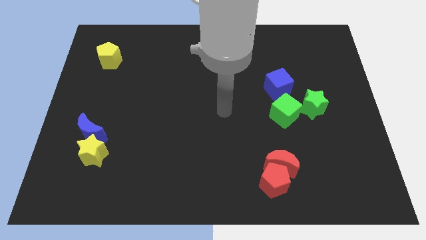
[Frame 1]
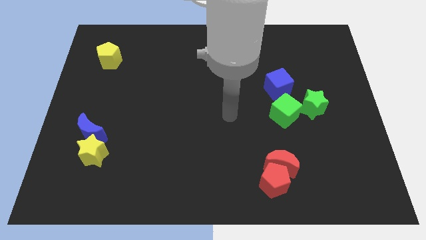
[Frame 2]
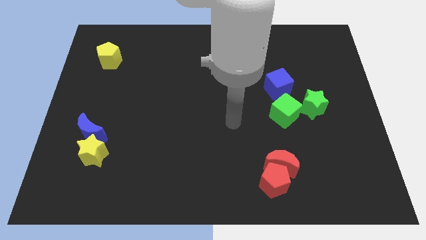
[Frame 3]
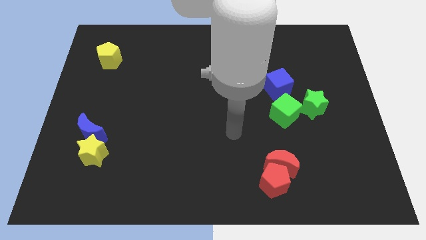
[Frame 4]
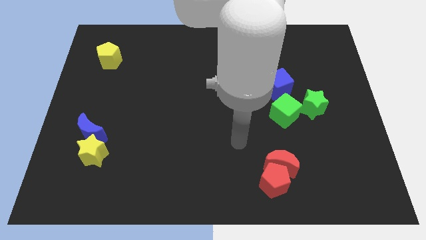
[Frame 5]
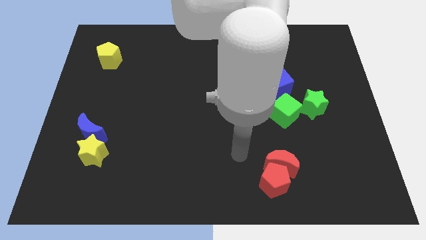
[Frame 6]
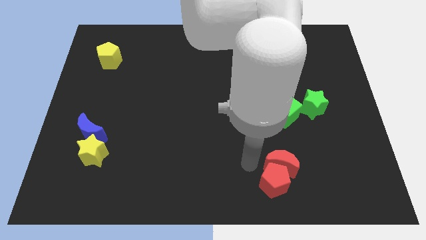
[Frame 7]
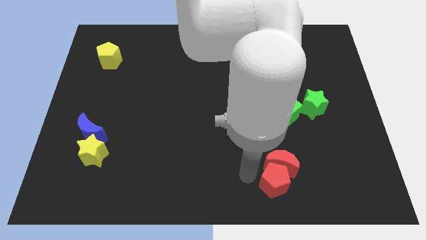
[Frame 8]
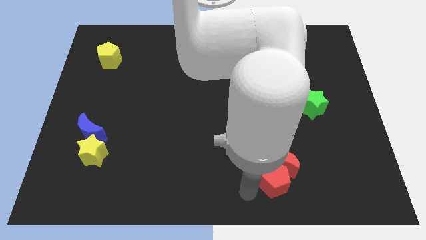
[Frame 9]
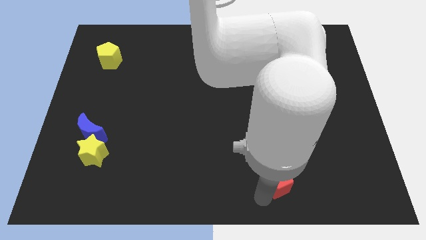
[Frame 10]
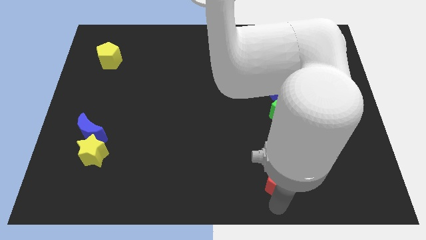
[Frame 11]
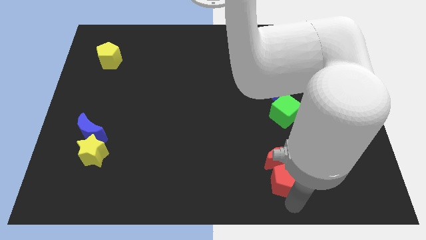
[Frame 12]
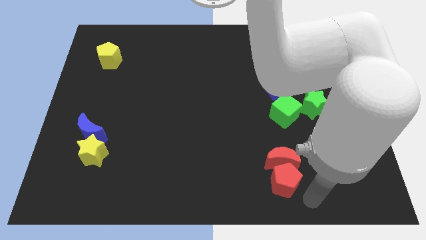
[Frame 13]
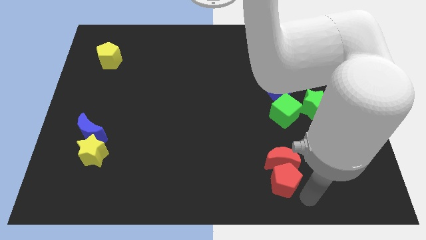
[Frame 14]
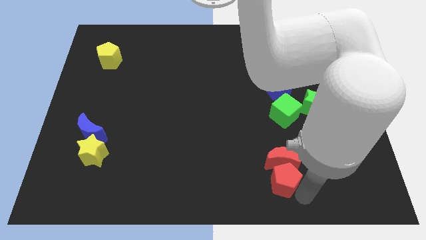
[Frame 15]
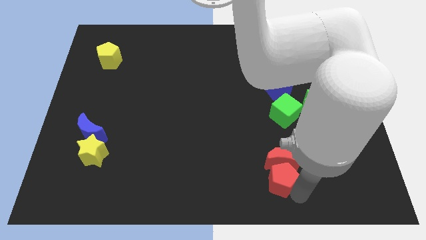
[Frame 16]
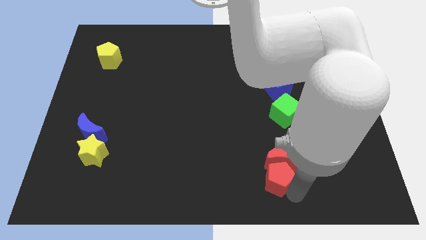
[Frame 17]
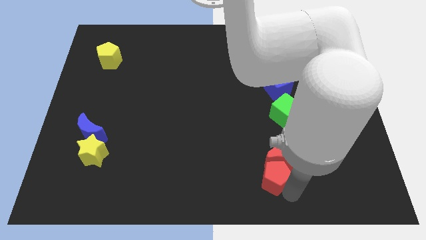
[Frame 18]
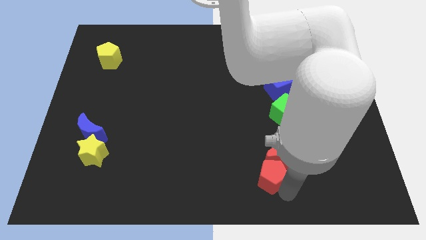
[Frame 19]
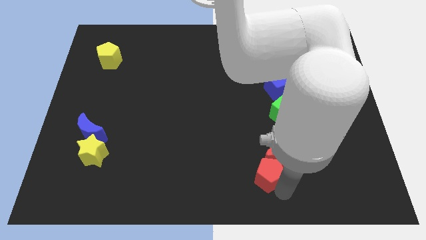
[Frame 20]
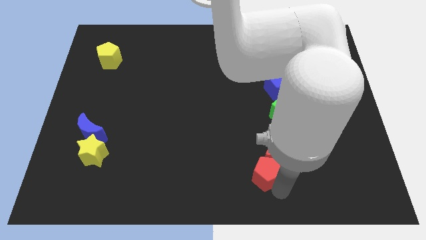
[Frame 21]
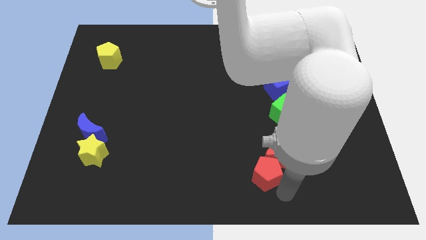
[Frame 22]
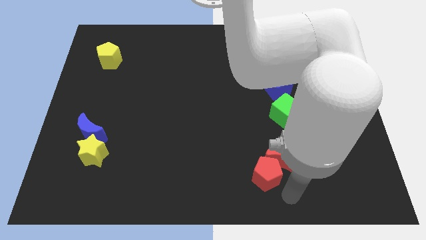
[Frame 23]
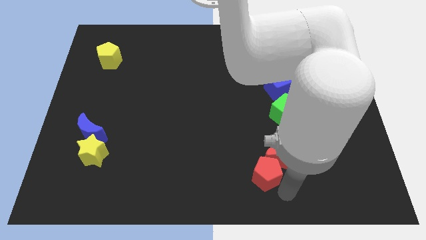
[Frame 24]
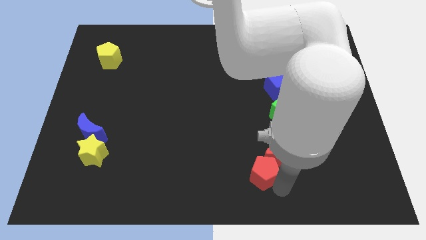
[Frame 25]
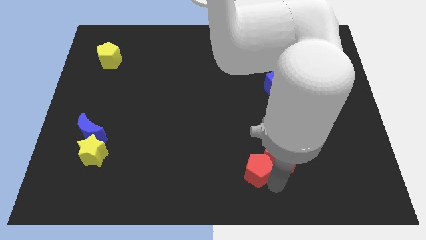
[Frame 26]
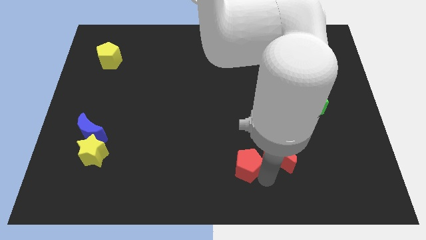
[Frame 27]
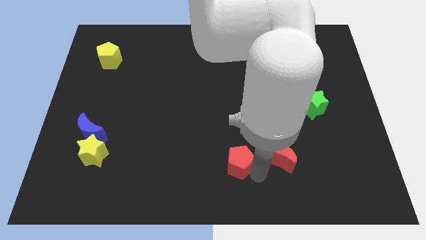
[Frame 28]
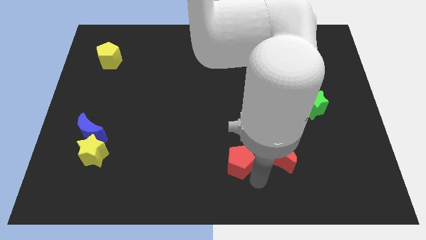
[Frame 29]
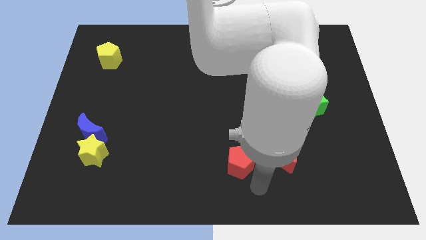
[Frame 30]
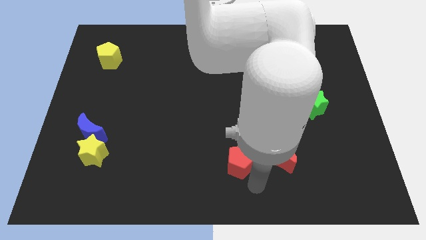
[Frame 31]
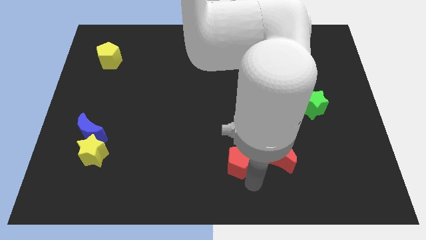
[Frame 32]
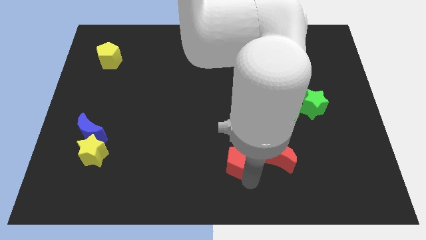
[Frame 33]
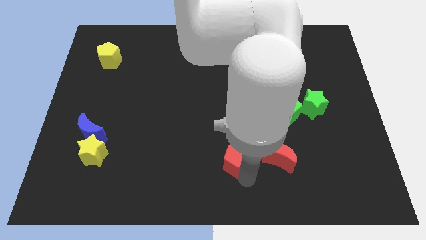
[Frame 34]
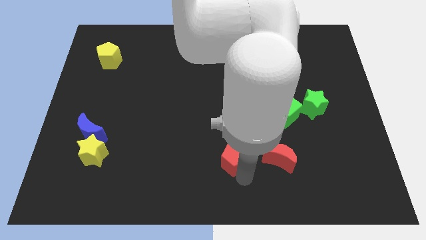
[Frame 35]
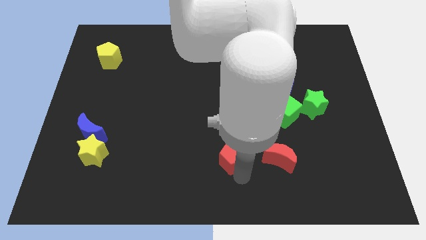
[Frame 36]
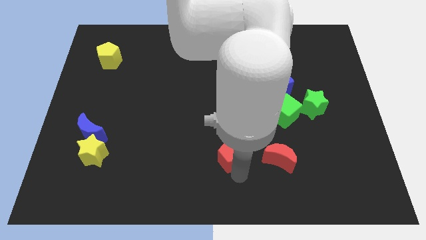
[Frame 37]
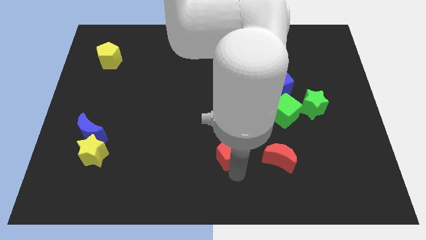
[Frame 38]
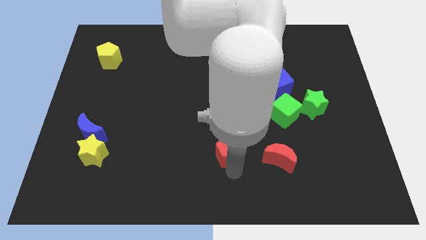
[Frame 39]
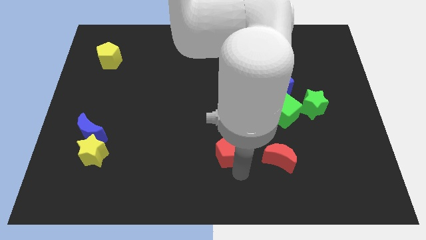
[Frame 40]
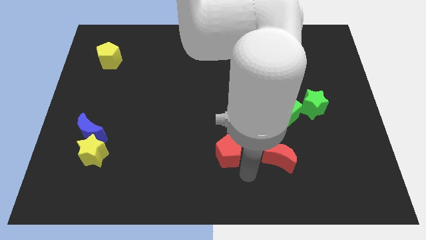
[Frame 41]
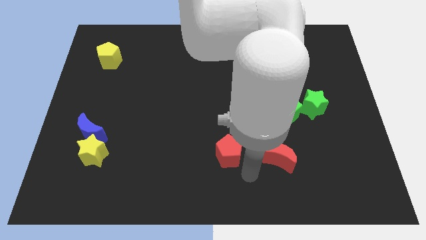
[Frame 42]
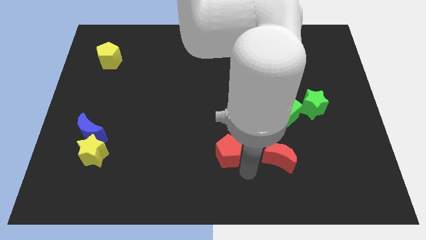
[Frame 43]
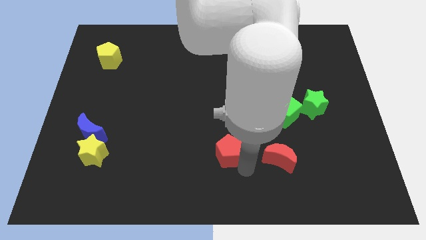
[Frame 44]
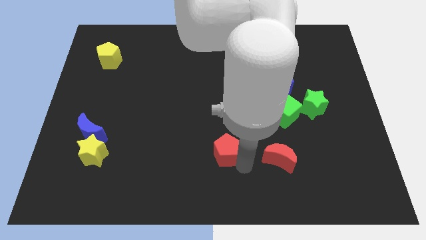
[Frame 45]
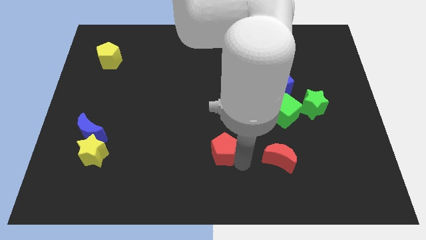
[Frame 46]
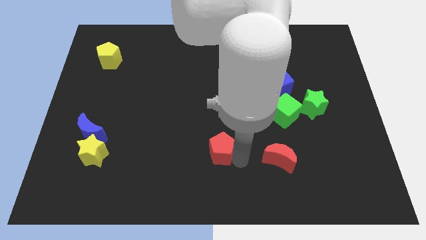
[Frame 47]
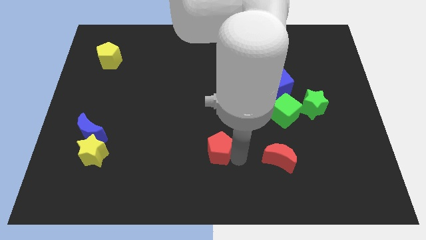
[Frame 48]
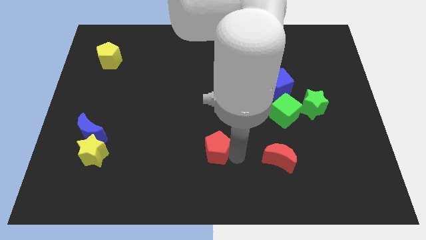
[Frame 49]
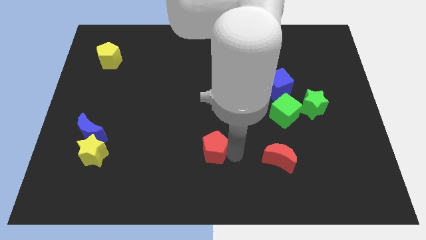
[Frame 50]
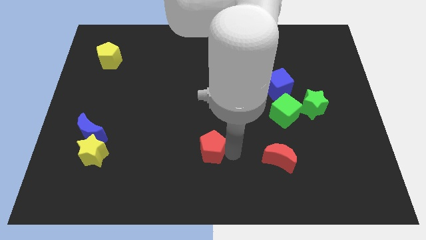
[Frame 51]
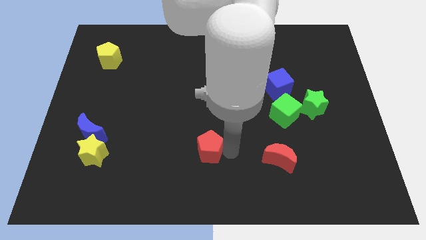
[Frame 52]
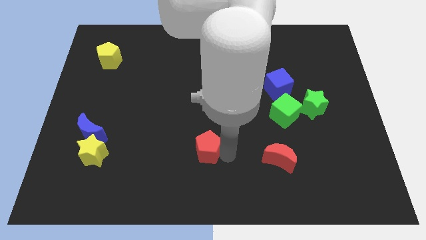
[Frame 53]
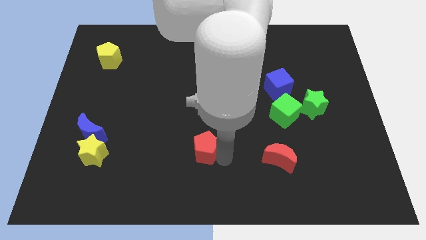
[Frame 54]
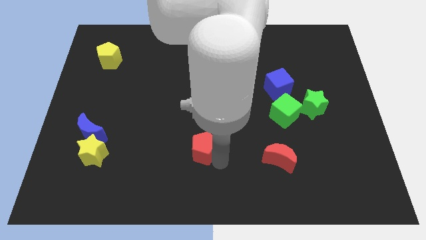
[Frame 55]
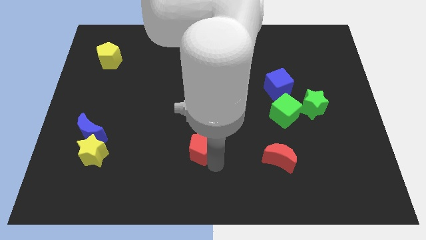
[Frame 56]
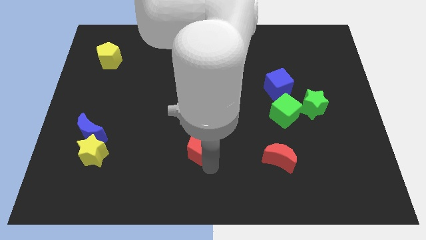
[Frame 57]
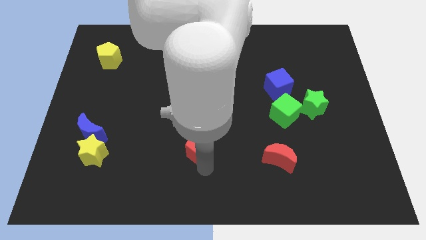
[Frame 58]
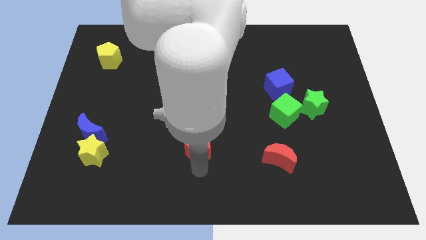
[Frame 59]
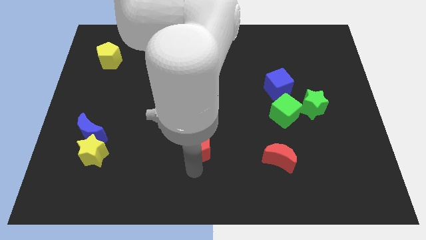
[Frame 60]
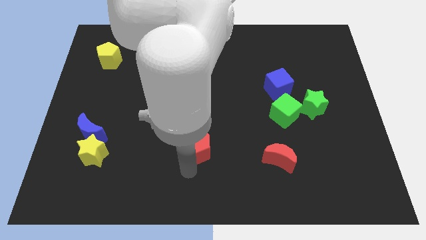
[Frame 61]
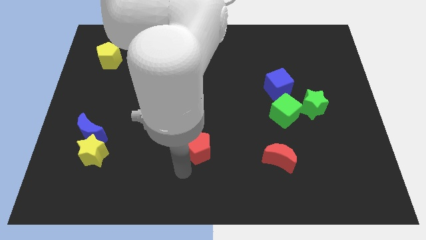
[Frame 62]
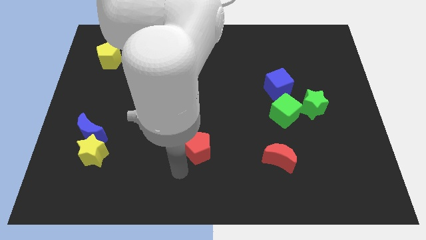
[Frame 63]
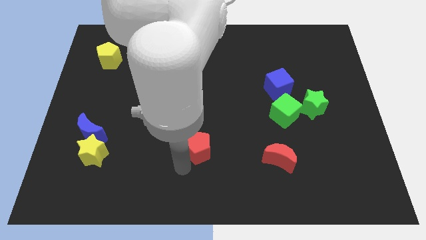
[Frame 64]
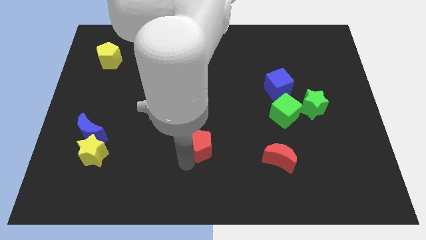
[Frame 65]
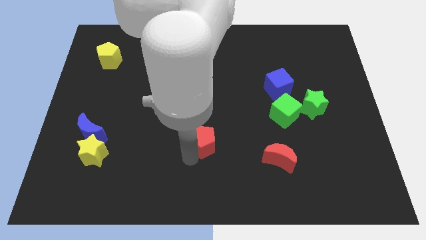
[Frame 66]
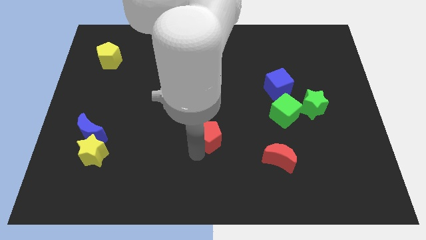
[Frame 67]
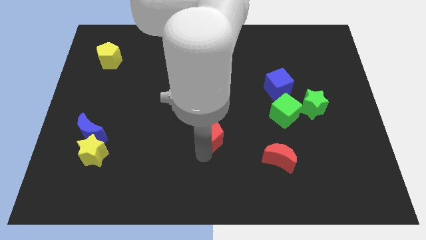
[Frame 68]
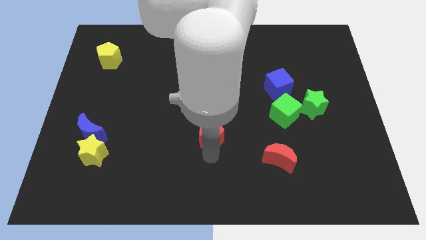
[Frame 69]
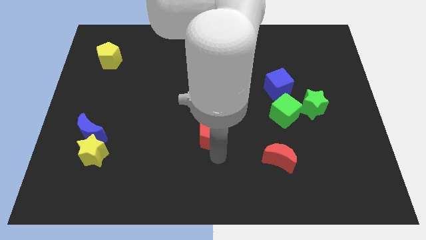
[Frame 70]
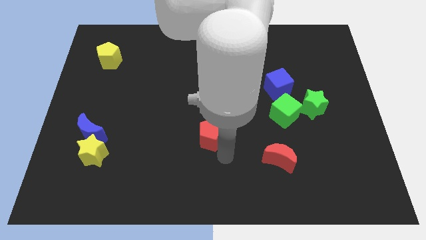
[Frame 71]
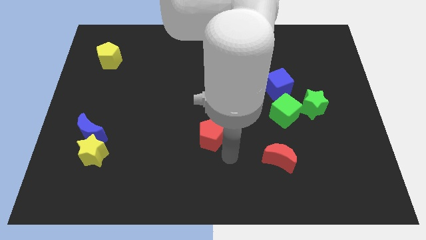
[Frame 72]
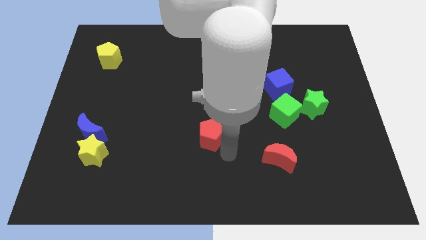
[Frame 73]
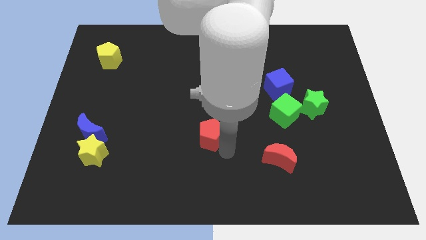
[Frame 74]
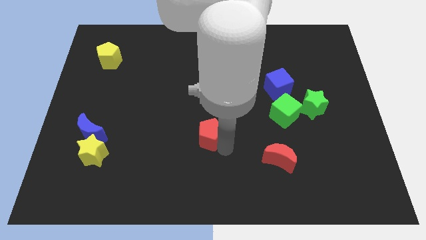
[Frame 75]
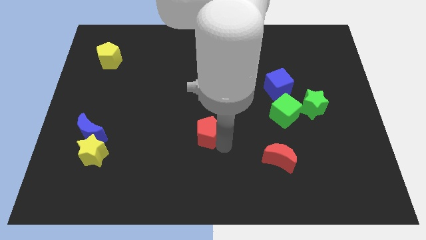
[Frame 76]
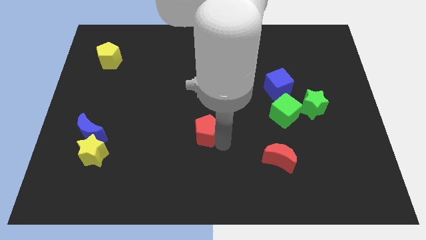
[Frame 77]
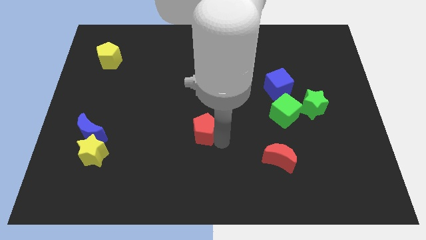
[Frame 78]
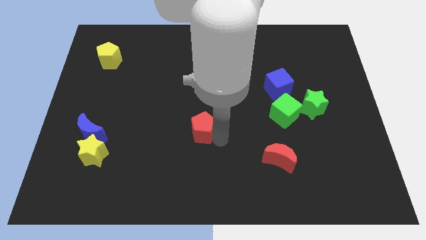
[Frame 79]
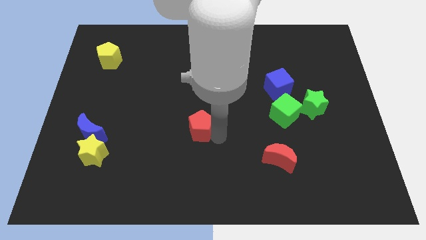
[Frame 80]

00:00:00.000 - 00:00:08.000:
push the red pentagon diagonally up and to the left
